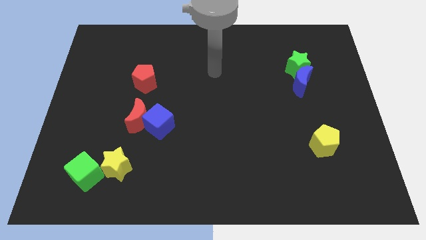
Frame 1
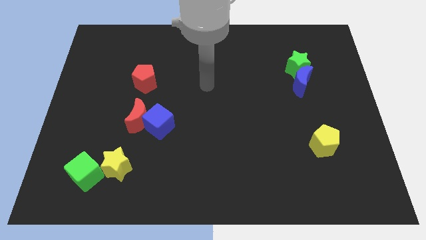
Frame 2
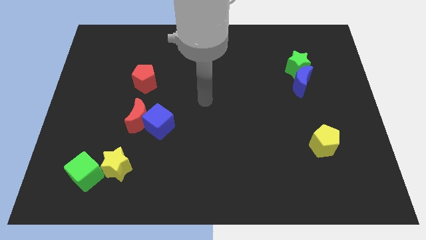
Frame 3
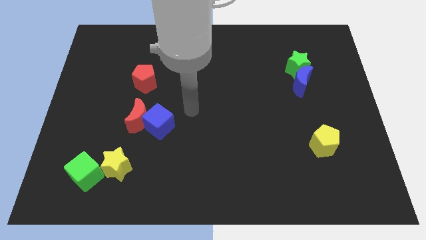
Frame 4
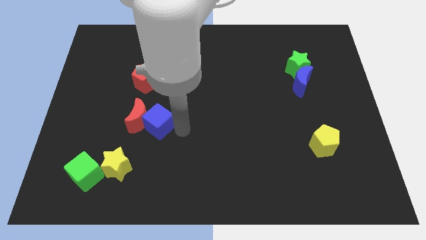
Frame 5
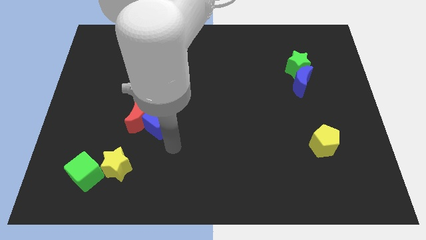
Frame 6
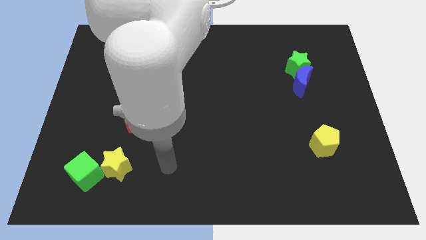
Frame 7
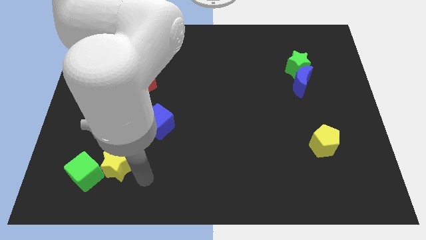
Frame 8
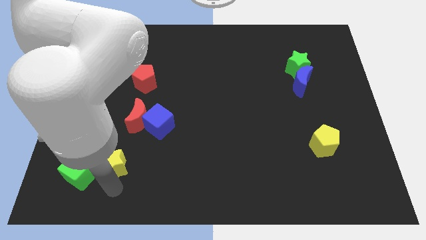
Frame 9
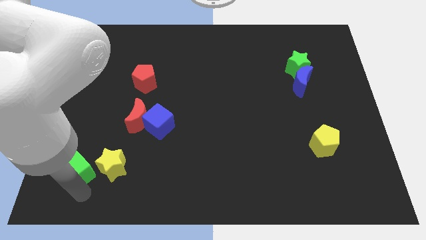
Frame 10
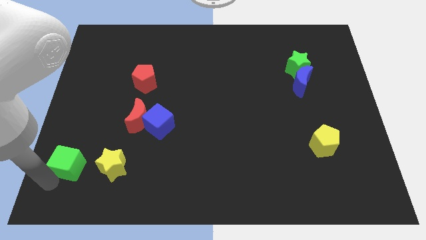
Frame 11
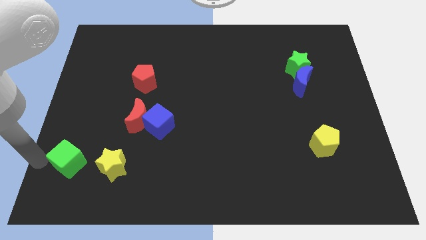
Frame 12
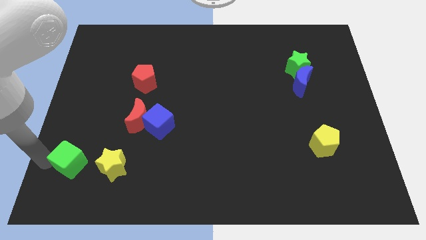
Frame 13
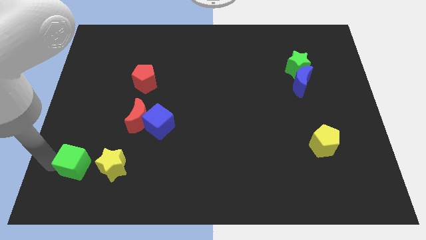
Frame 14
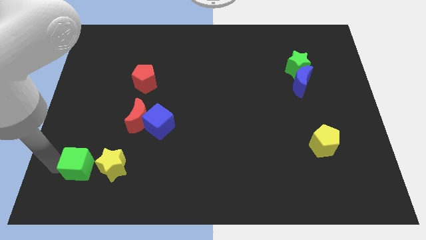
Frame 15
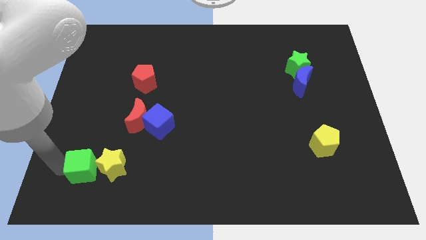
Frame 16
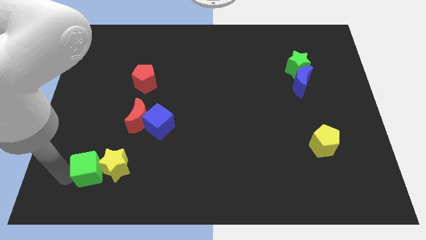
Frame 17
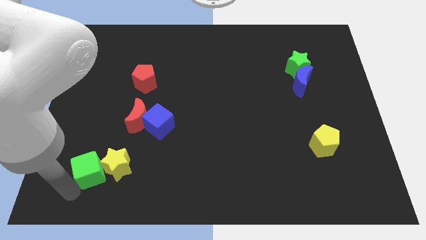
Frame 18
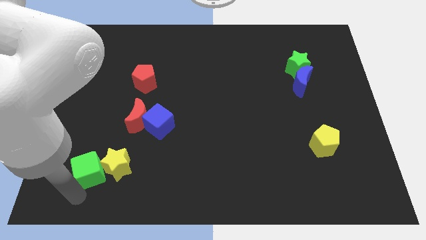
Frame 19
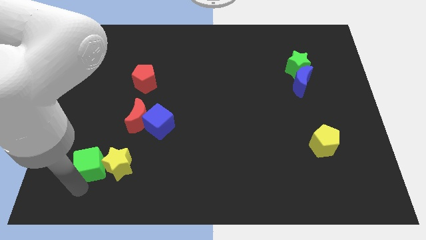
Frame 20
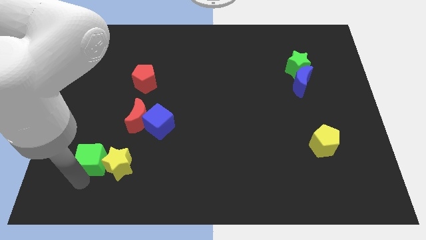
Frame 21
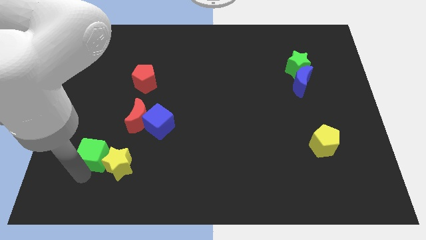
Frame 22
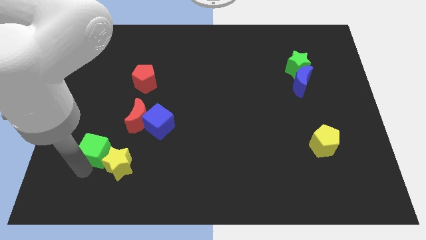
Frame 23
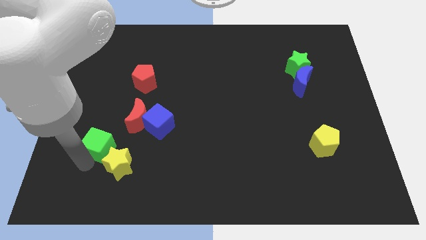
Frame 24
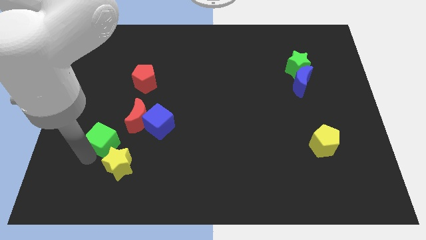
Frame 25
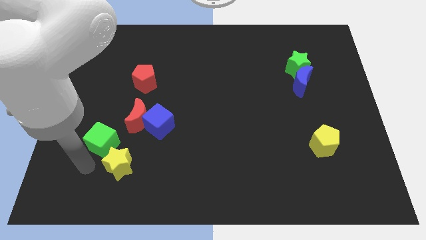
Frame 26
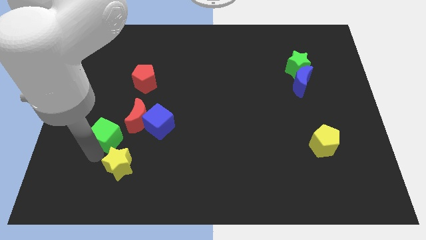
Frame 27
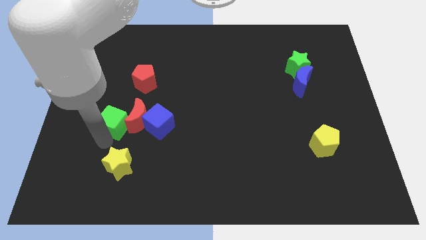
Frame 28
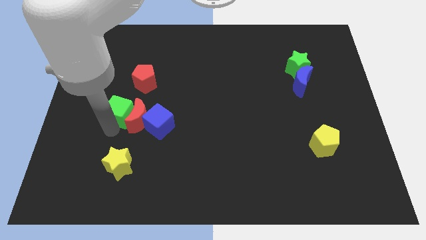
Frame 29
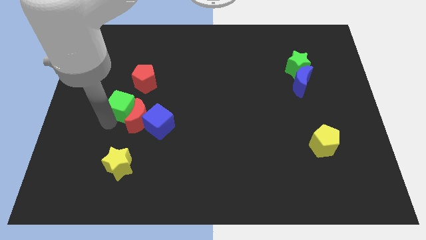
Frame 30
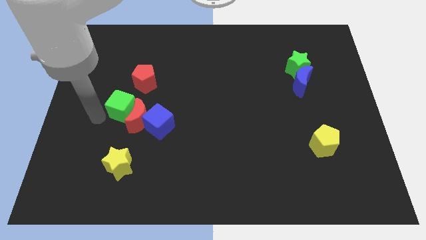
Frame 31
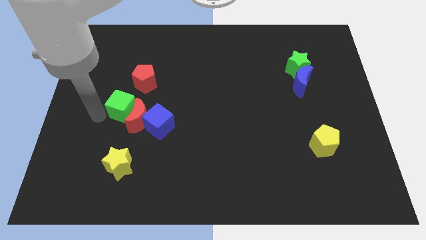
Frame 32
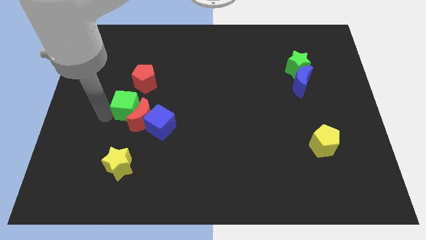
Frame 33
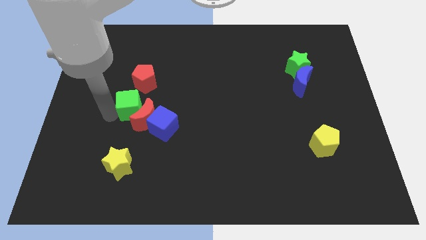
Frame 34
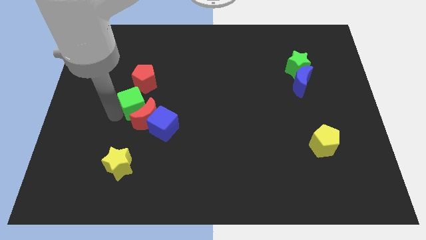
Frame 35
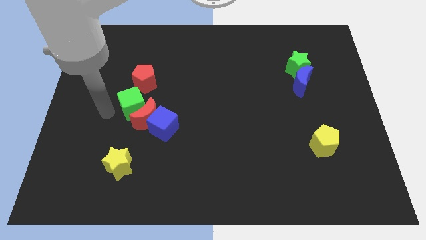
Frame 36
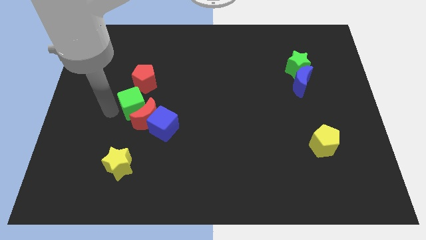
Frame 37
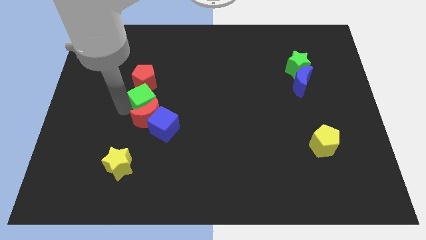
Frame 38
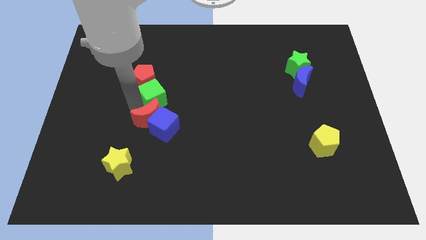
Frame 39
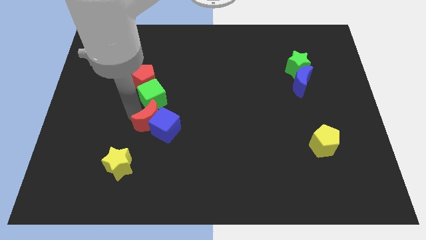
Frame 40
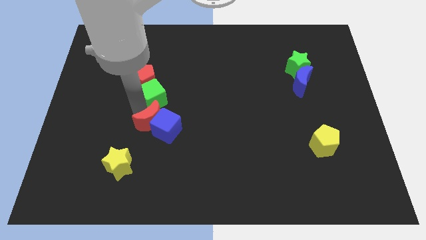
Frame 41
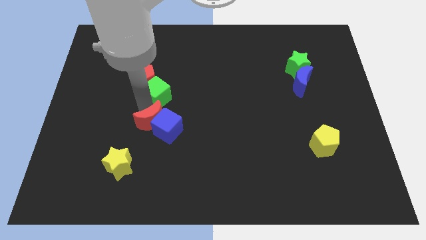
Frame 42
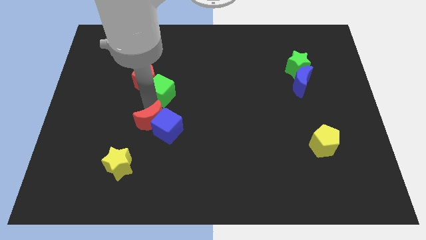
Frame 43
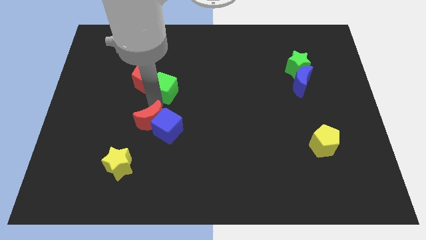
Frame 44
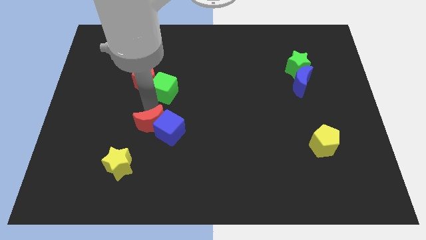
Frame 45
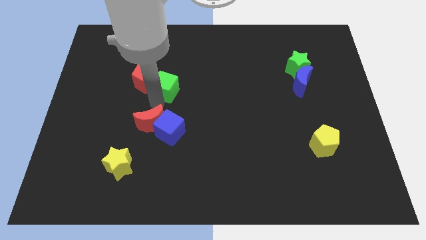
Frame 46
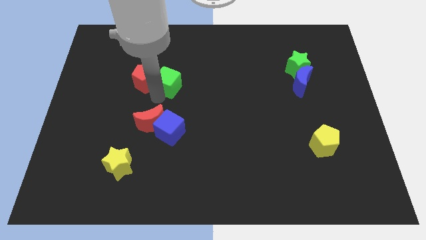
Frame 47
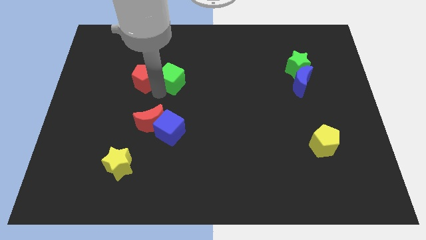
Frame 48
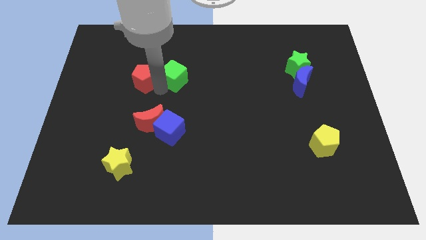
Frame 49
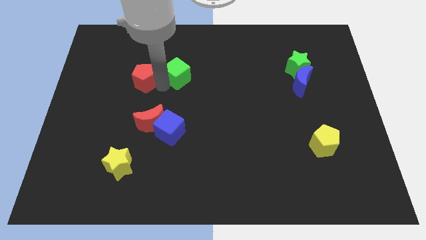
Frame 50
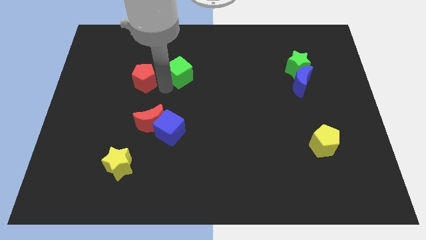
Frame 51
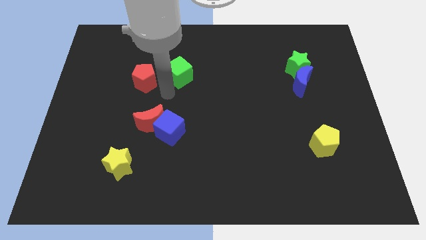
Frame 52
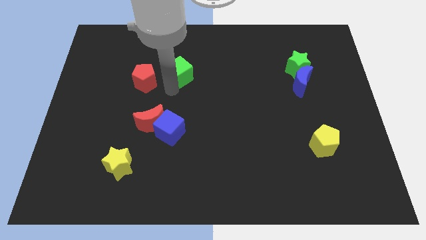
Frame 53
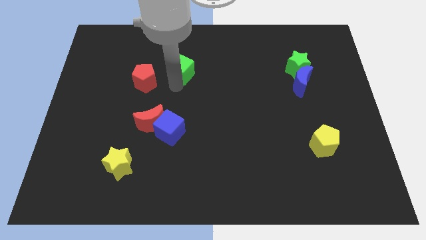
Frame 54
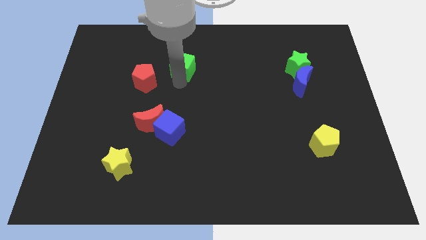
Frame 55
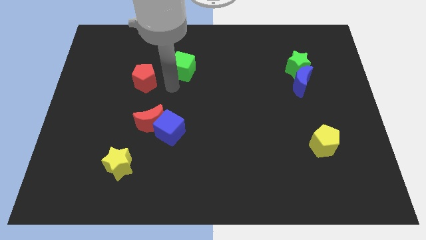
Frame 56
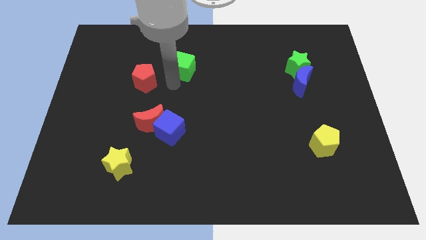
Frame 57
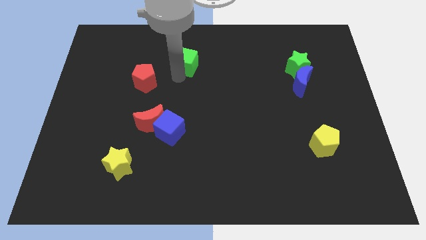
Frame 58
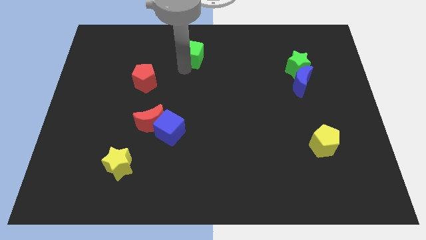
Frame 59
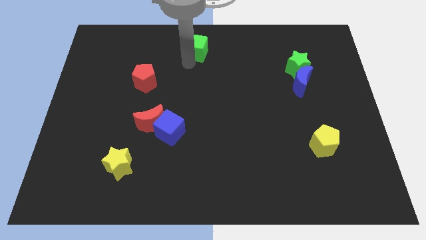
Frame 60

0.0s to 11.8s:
slide the green cube to the top

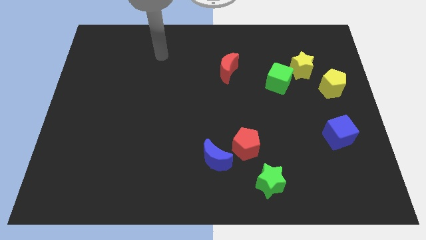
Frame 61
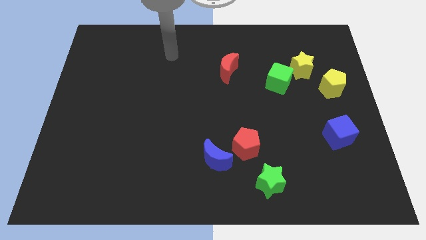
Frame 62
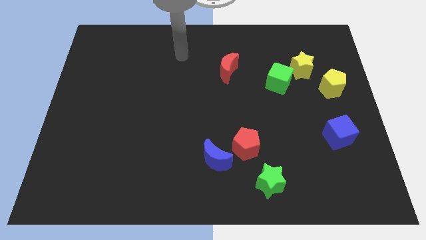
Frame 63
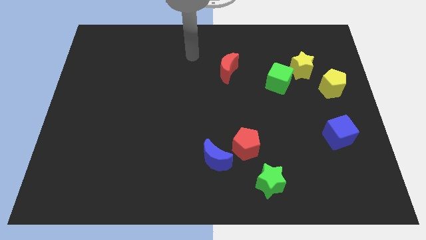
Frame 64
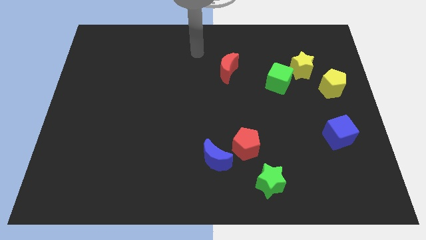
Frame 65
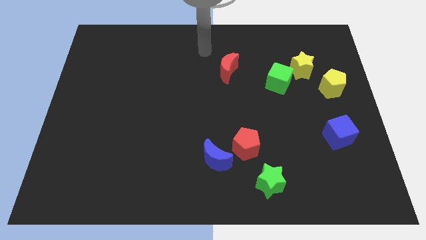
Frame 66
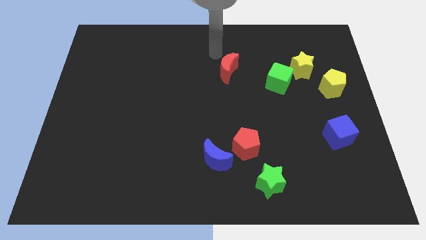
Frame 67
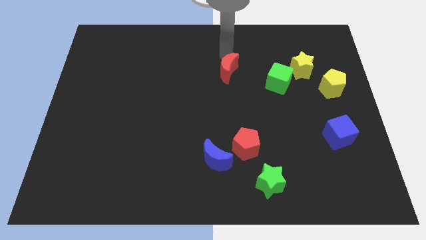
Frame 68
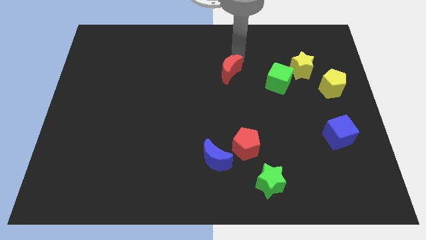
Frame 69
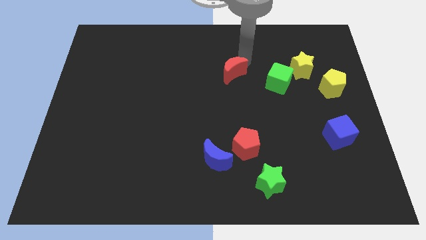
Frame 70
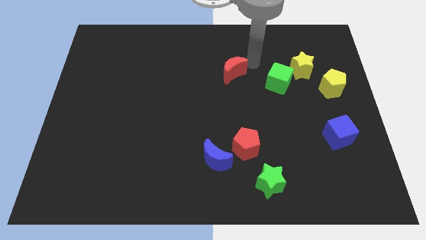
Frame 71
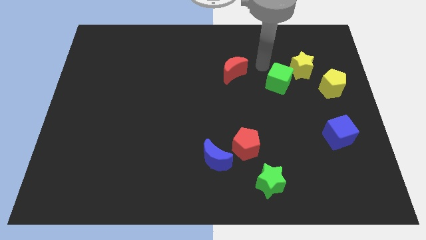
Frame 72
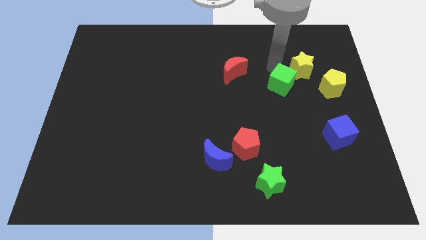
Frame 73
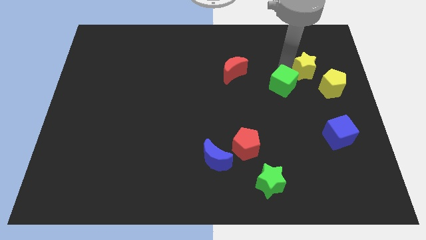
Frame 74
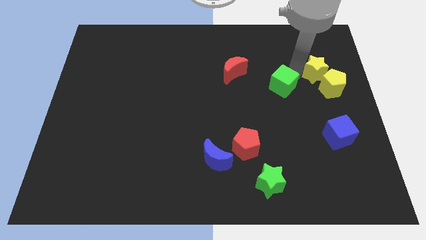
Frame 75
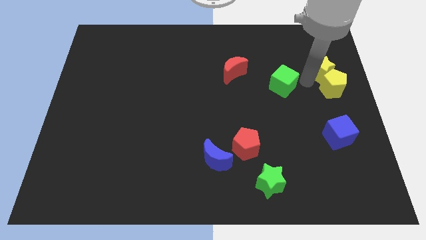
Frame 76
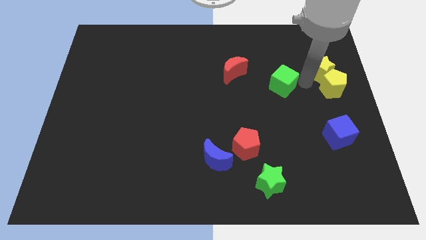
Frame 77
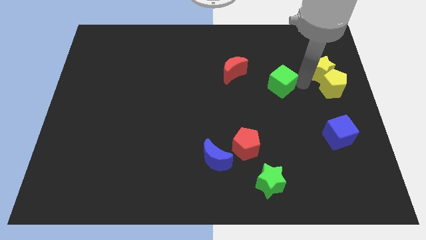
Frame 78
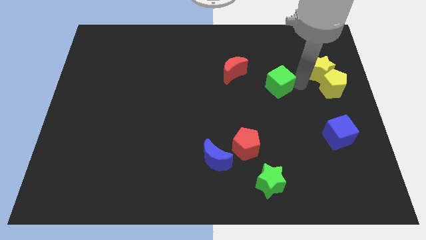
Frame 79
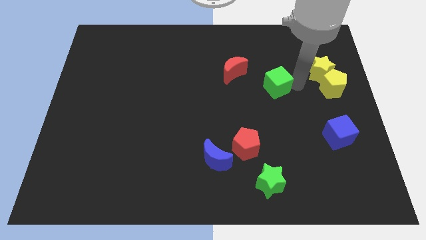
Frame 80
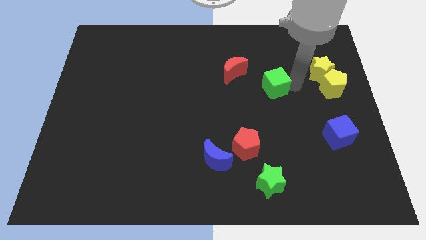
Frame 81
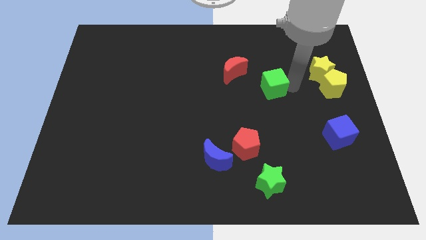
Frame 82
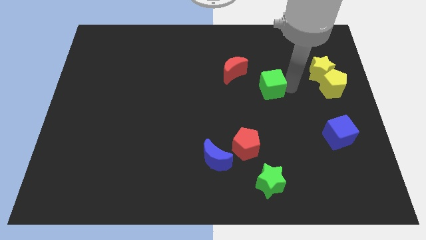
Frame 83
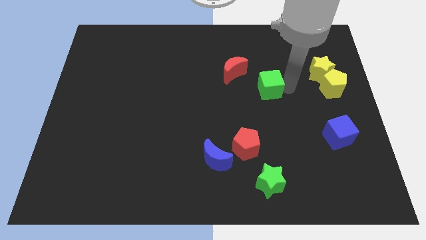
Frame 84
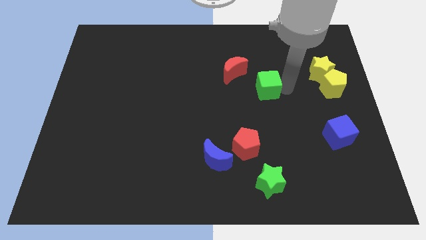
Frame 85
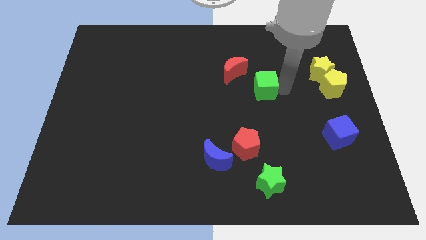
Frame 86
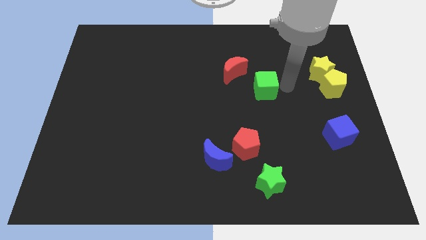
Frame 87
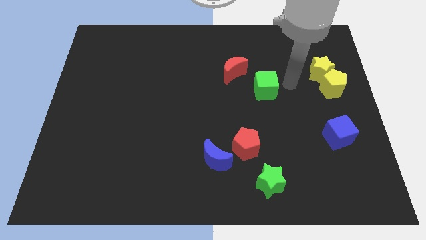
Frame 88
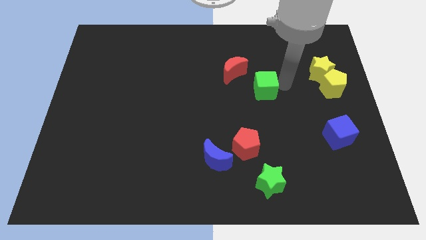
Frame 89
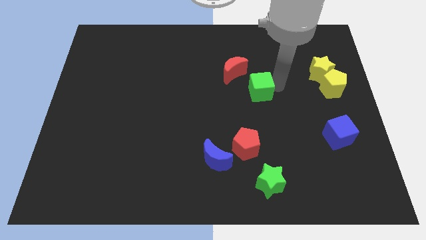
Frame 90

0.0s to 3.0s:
slide the green cube to the middle
